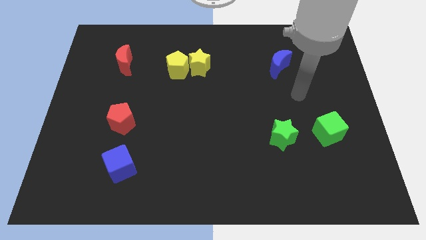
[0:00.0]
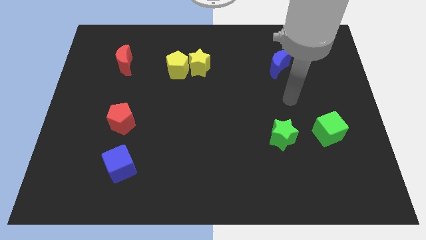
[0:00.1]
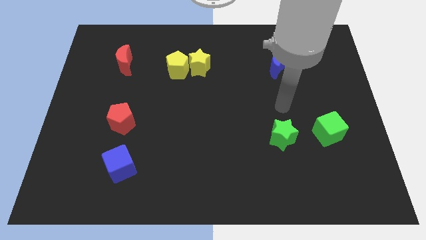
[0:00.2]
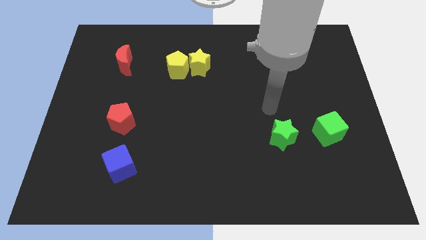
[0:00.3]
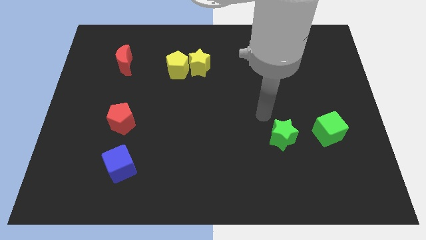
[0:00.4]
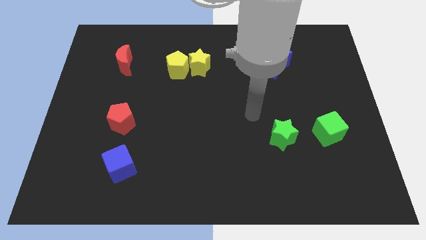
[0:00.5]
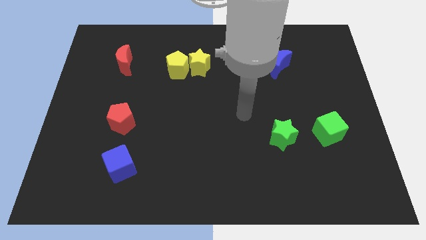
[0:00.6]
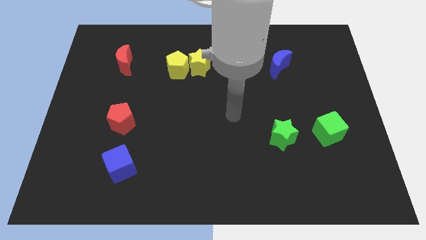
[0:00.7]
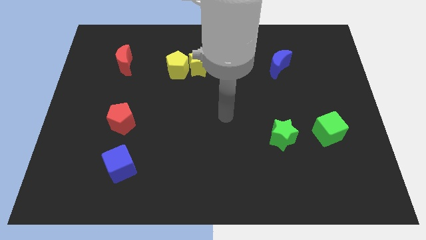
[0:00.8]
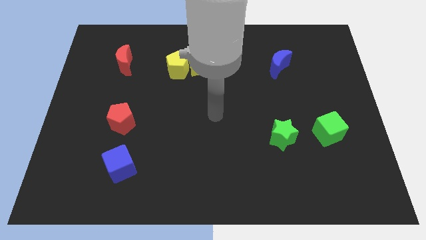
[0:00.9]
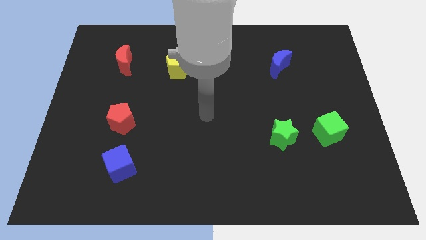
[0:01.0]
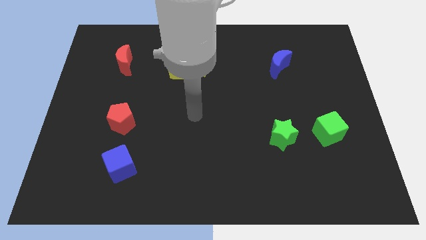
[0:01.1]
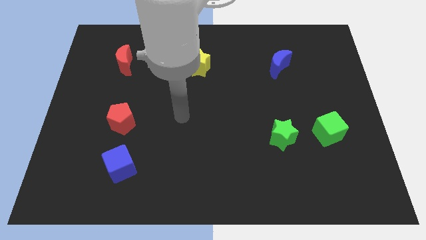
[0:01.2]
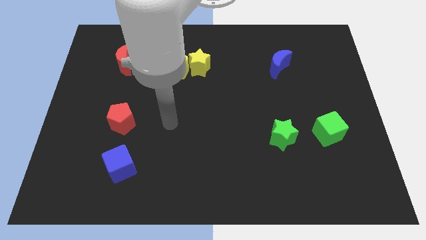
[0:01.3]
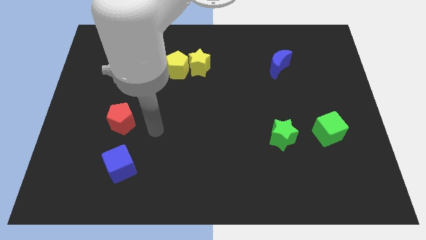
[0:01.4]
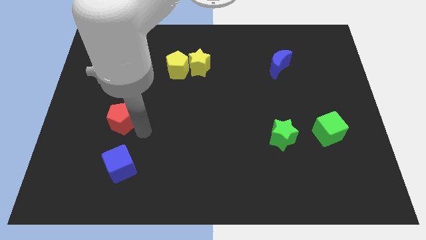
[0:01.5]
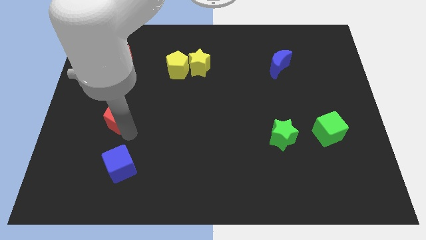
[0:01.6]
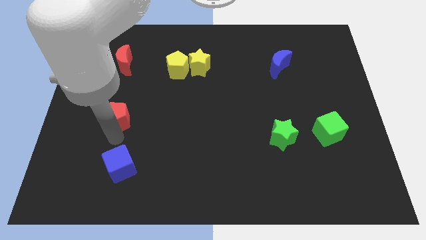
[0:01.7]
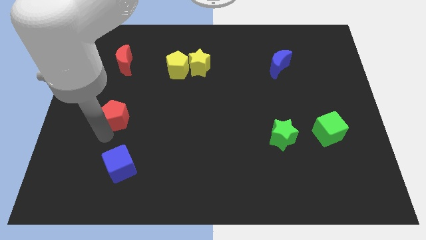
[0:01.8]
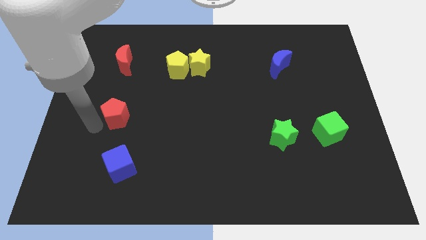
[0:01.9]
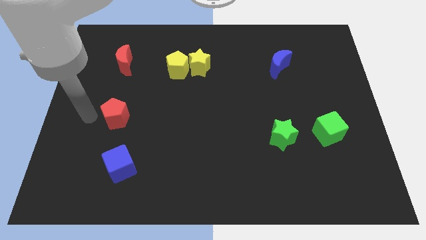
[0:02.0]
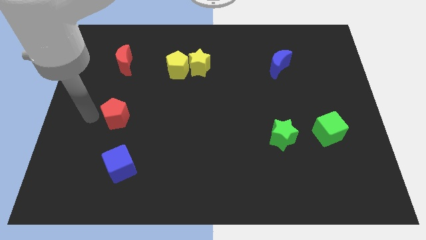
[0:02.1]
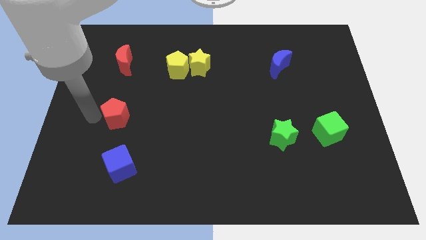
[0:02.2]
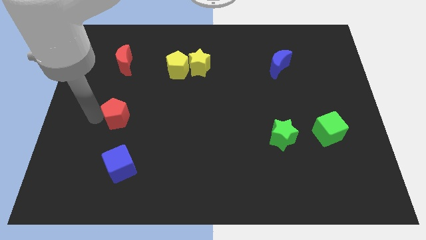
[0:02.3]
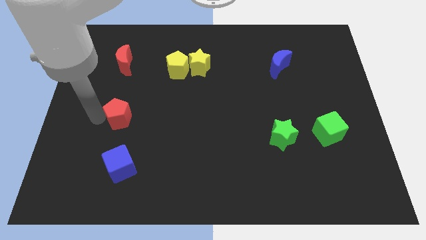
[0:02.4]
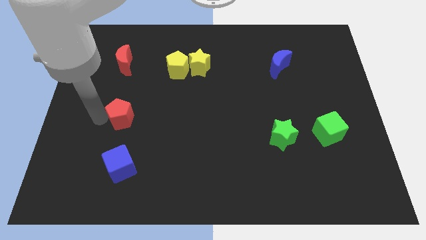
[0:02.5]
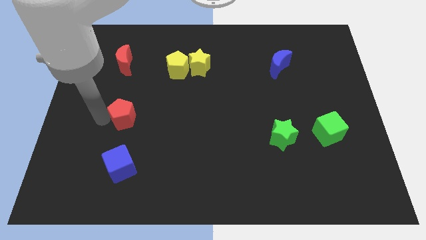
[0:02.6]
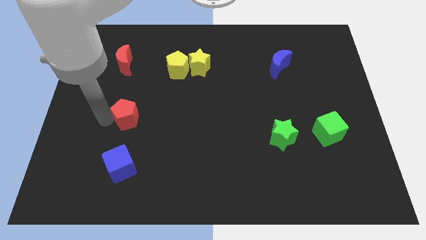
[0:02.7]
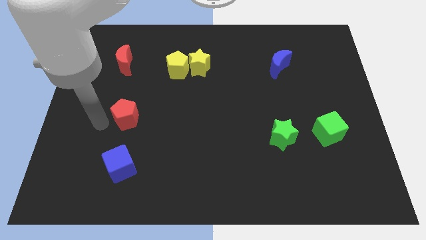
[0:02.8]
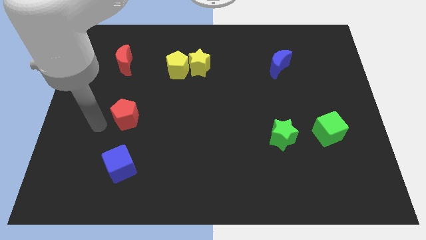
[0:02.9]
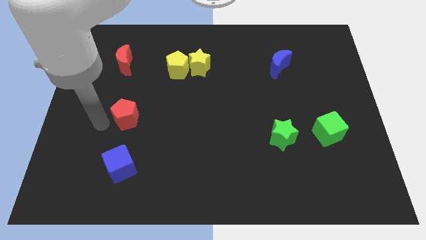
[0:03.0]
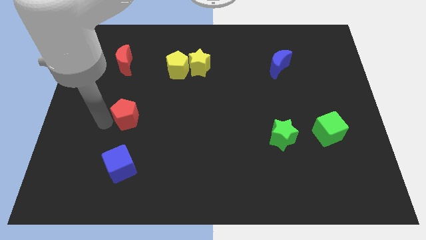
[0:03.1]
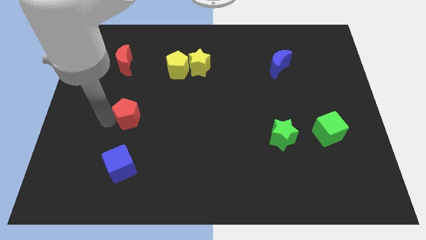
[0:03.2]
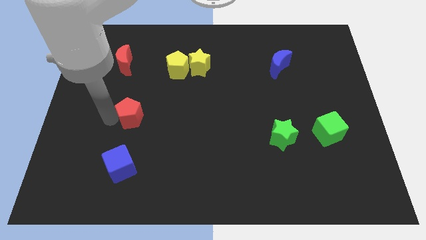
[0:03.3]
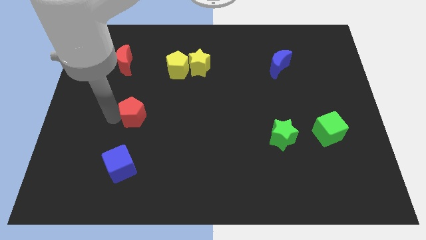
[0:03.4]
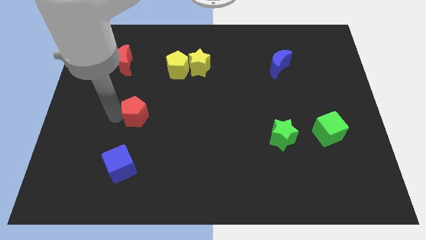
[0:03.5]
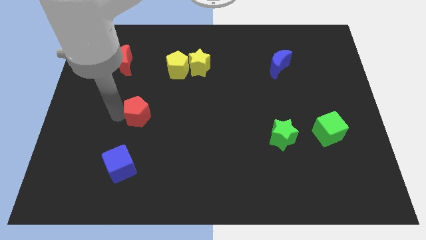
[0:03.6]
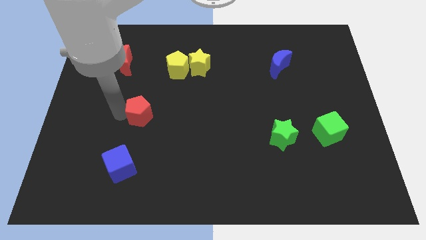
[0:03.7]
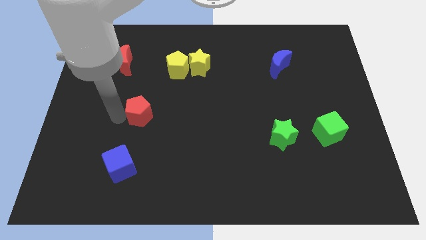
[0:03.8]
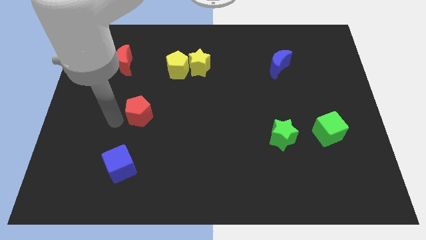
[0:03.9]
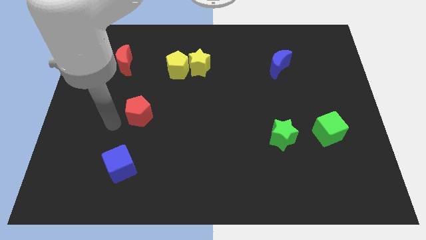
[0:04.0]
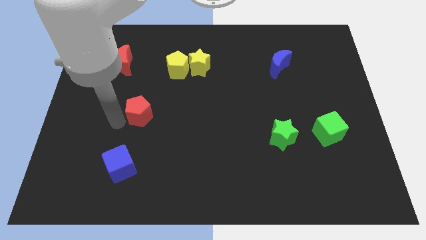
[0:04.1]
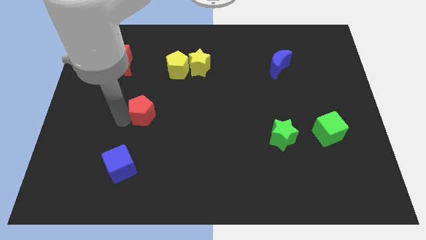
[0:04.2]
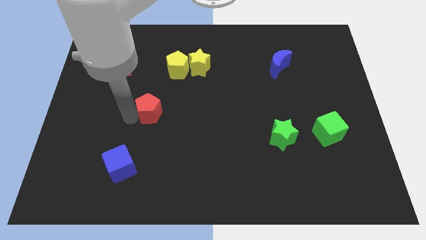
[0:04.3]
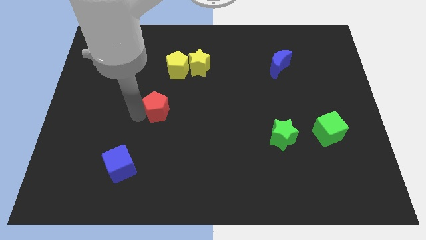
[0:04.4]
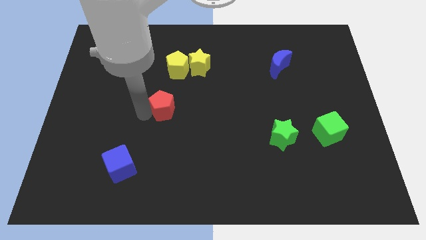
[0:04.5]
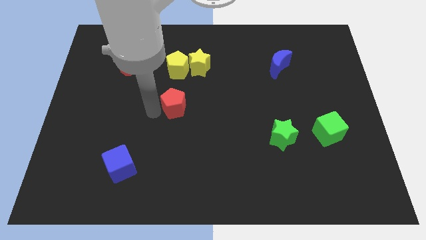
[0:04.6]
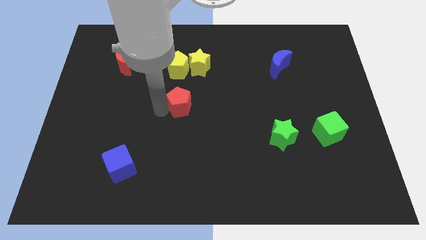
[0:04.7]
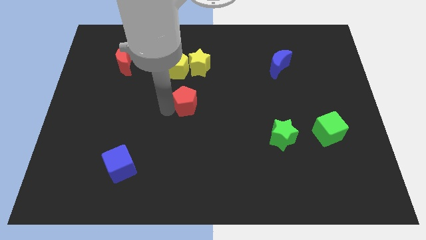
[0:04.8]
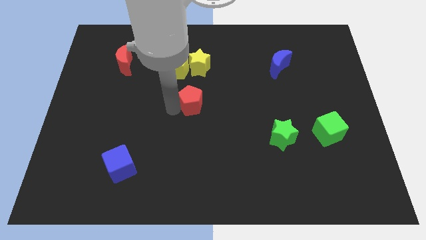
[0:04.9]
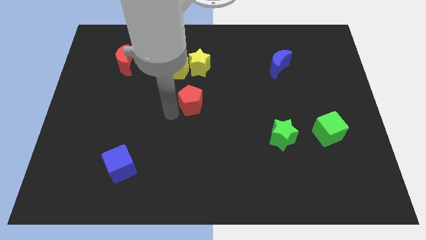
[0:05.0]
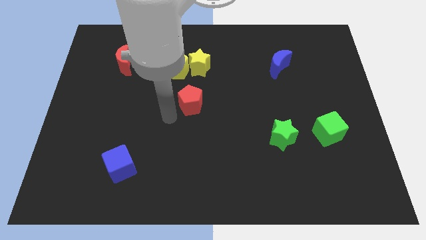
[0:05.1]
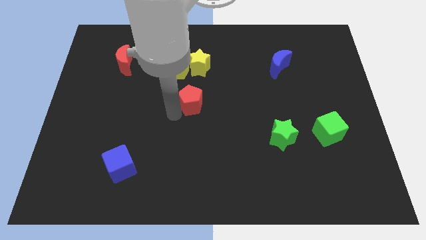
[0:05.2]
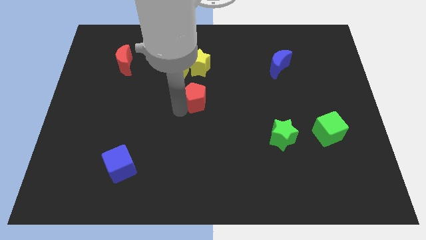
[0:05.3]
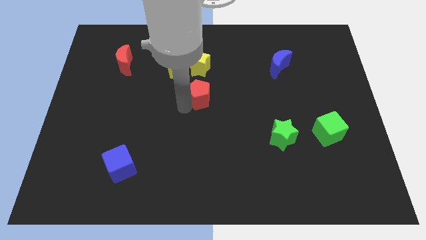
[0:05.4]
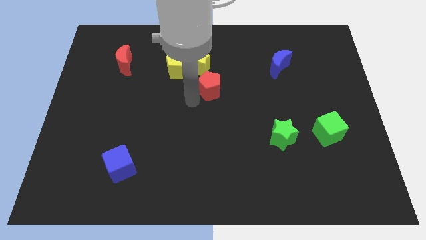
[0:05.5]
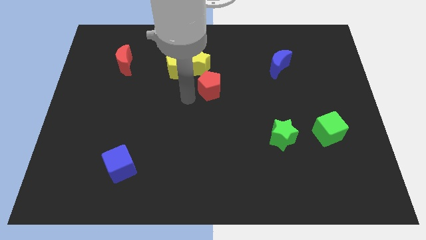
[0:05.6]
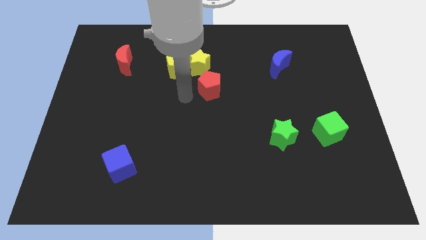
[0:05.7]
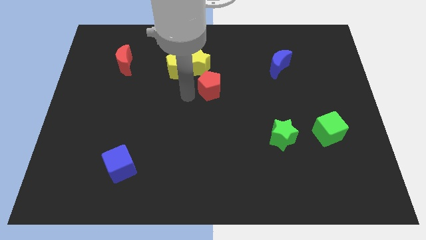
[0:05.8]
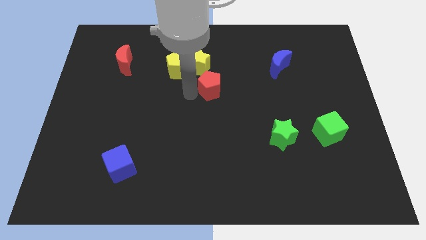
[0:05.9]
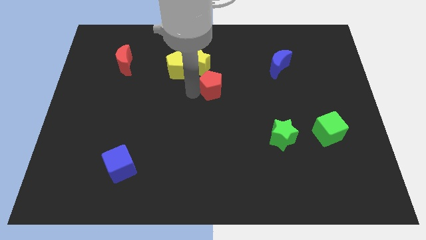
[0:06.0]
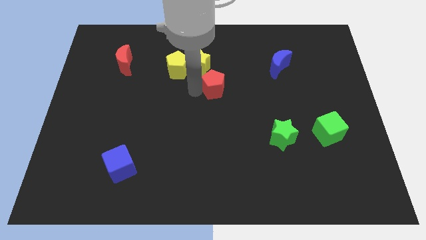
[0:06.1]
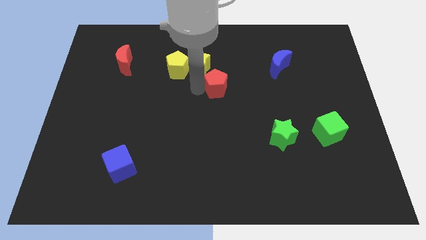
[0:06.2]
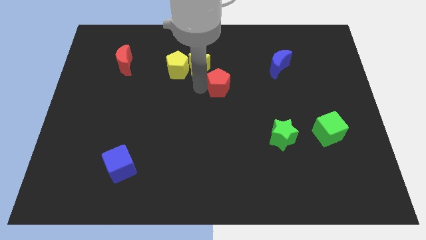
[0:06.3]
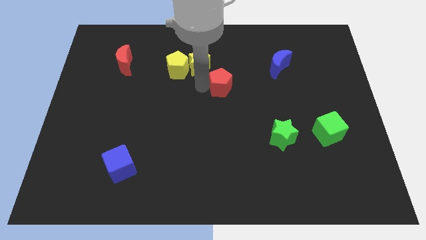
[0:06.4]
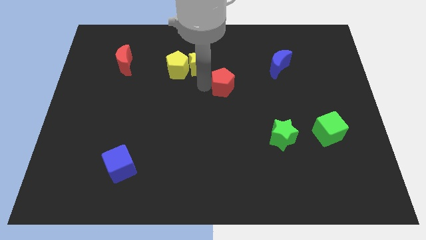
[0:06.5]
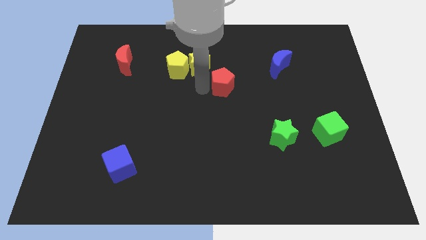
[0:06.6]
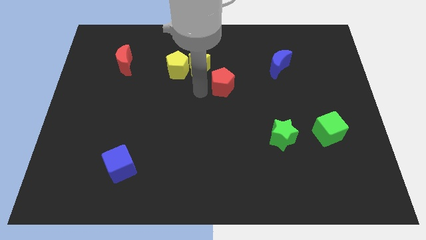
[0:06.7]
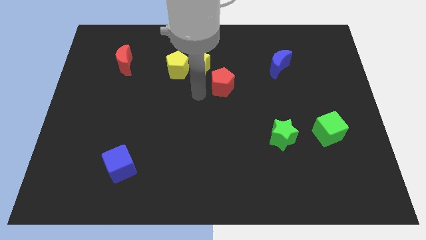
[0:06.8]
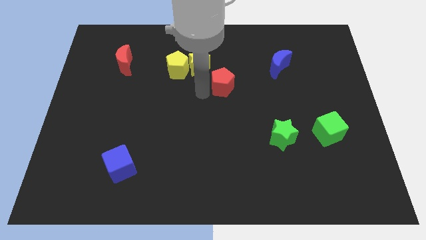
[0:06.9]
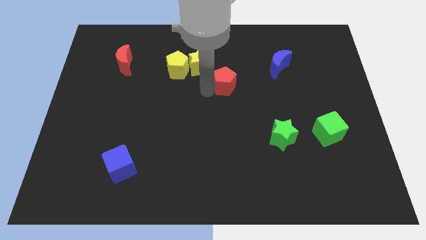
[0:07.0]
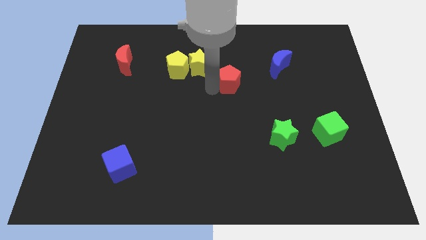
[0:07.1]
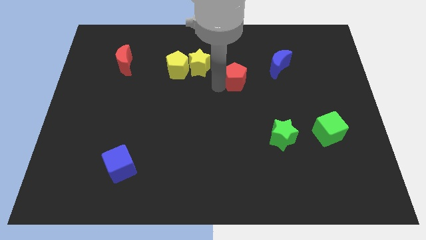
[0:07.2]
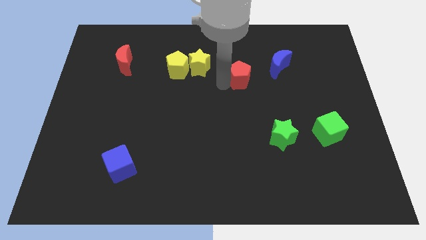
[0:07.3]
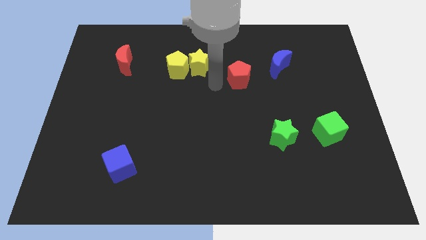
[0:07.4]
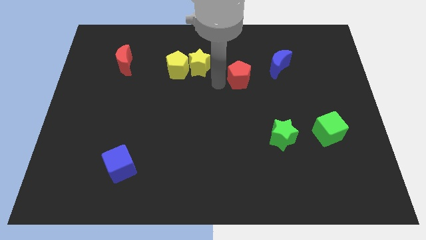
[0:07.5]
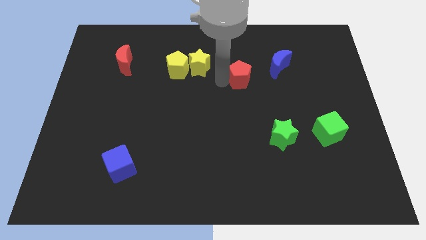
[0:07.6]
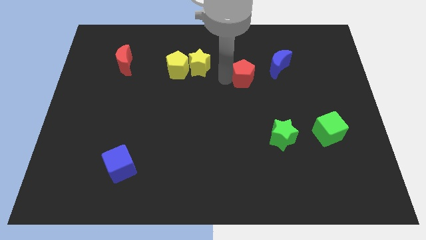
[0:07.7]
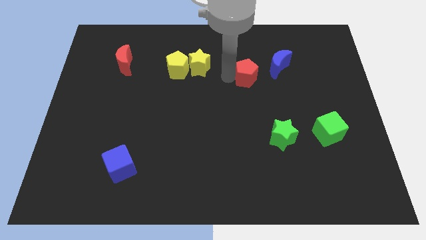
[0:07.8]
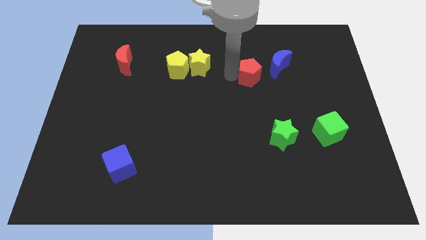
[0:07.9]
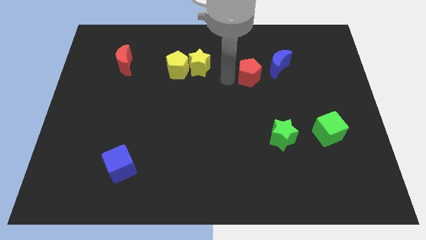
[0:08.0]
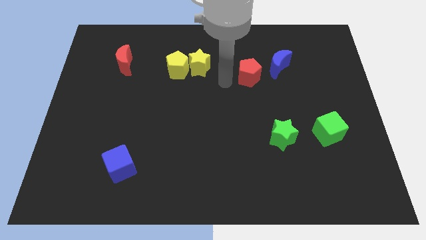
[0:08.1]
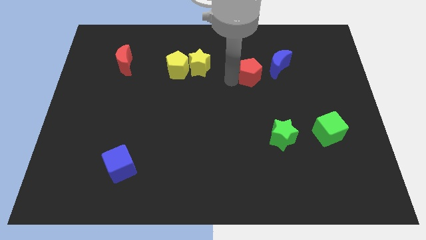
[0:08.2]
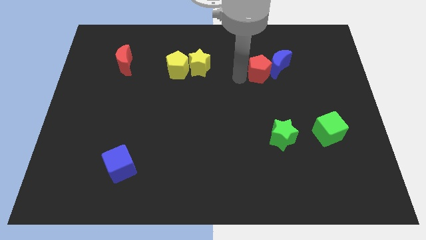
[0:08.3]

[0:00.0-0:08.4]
move the red pentagon close to the blue moon
